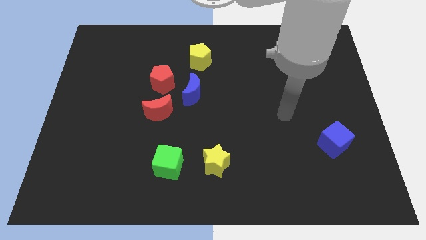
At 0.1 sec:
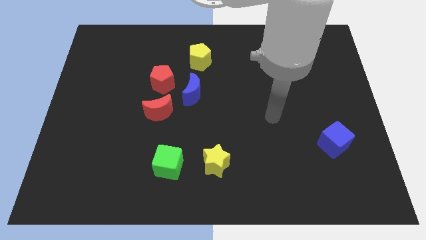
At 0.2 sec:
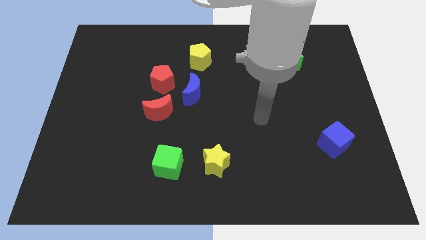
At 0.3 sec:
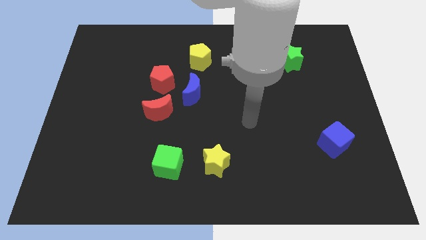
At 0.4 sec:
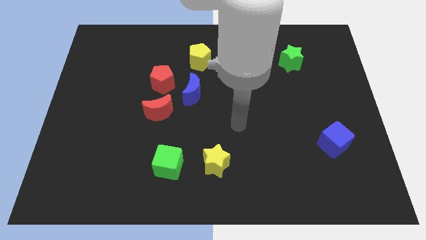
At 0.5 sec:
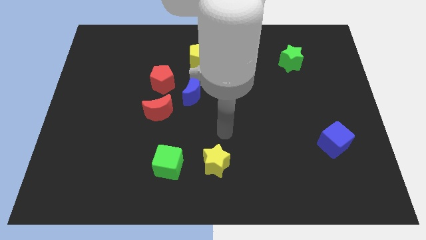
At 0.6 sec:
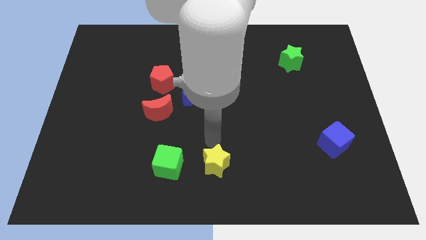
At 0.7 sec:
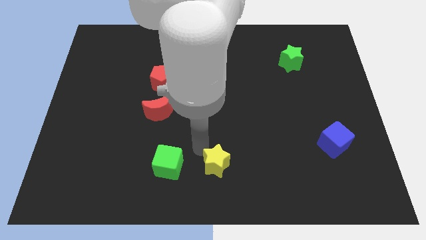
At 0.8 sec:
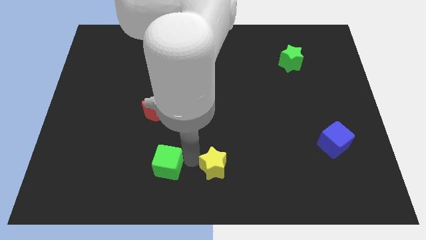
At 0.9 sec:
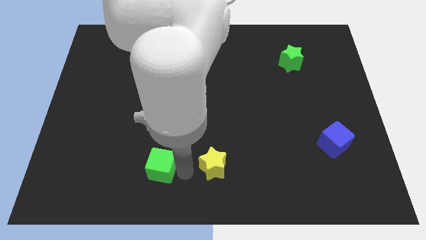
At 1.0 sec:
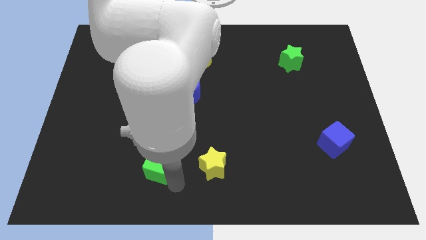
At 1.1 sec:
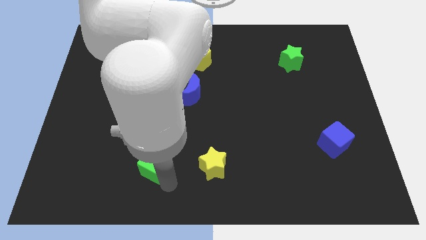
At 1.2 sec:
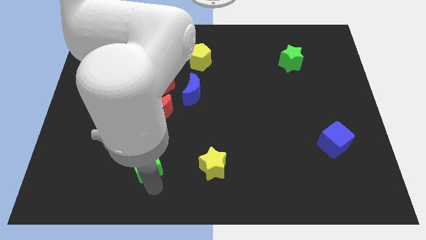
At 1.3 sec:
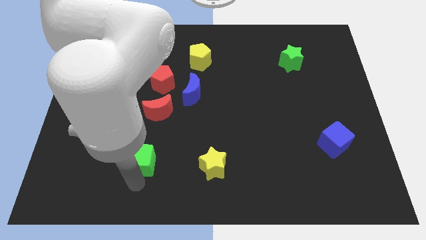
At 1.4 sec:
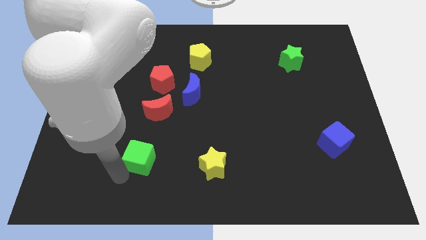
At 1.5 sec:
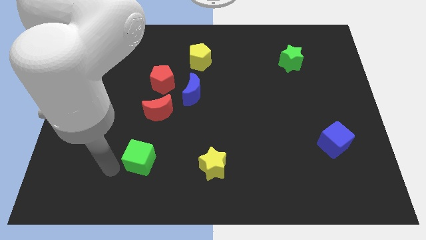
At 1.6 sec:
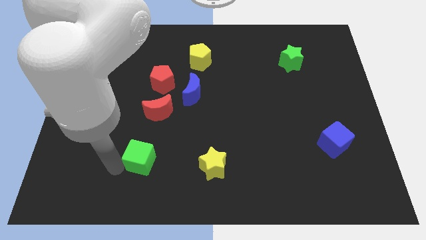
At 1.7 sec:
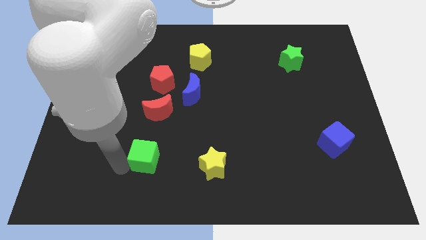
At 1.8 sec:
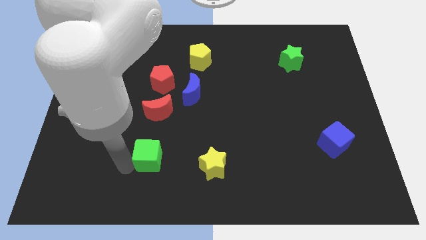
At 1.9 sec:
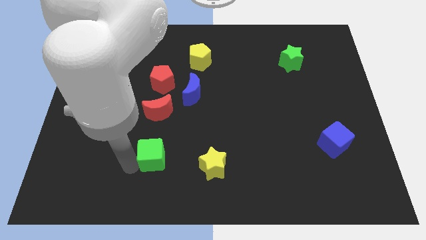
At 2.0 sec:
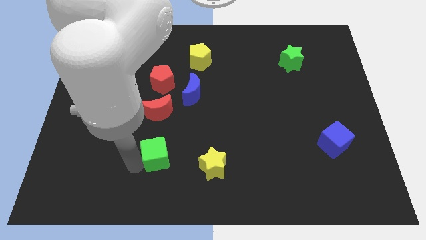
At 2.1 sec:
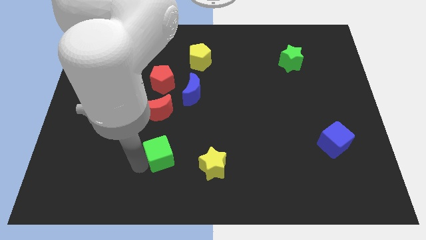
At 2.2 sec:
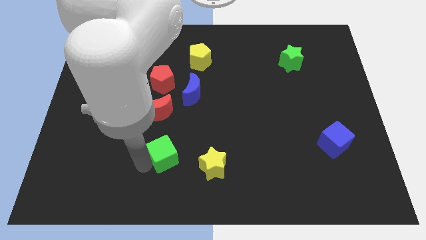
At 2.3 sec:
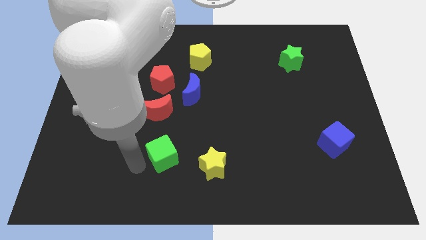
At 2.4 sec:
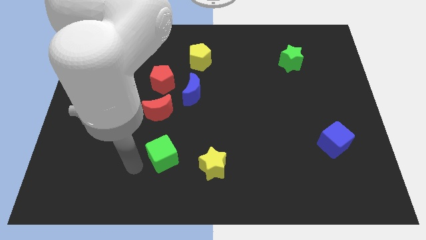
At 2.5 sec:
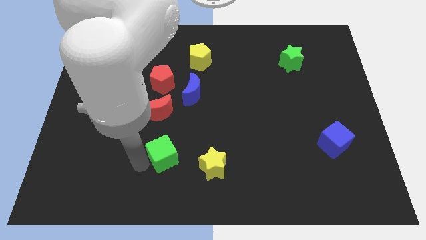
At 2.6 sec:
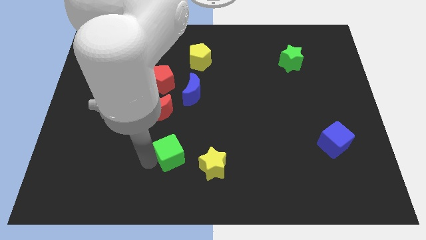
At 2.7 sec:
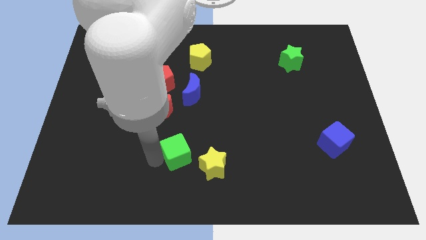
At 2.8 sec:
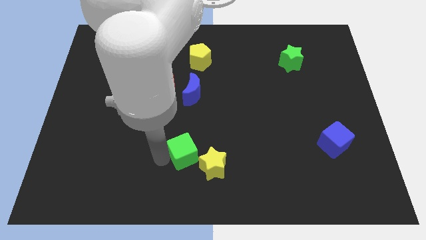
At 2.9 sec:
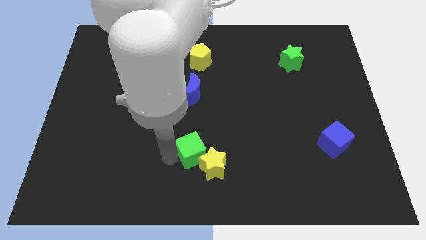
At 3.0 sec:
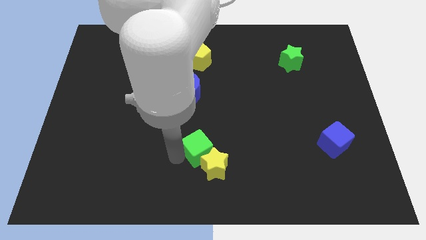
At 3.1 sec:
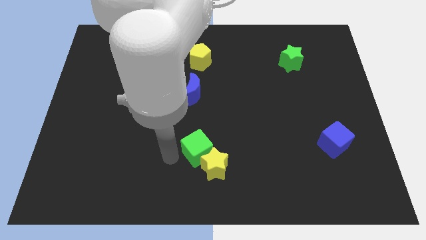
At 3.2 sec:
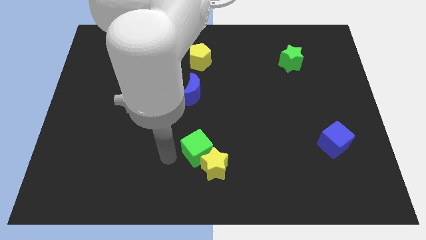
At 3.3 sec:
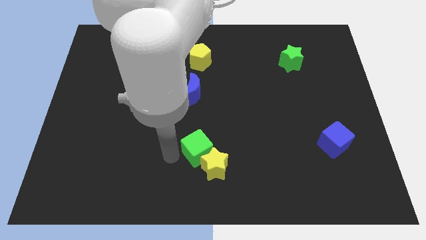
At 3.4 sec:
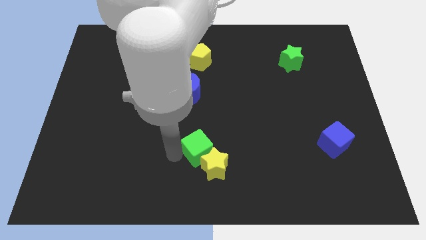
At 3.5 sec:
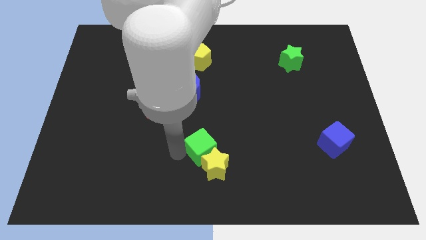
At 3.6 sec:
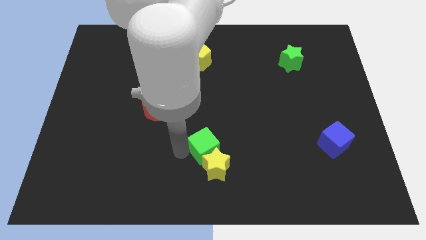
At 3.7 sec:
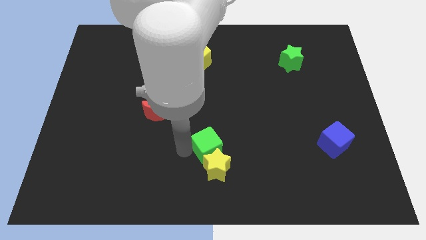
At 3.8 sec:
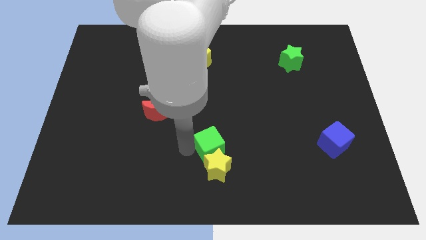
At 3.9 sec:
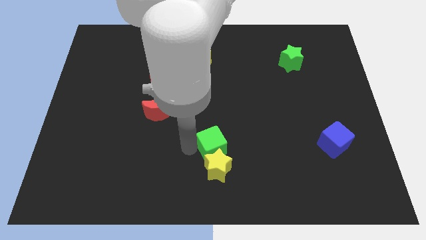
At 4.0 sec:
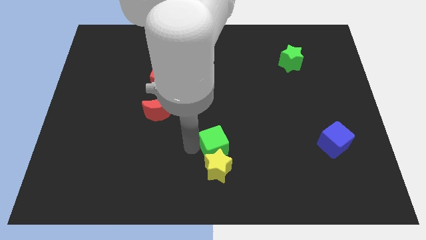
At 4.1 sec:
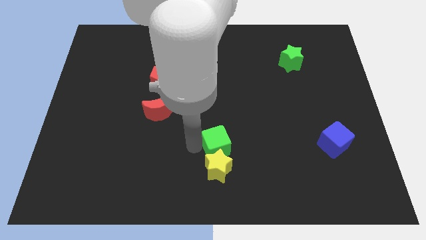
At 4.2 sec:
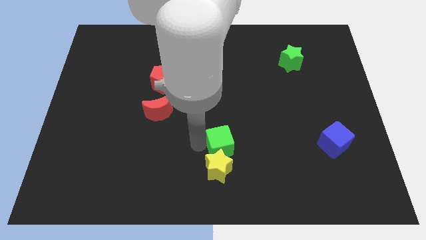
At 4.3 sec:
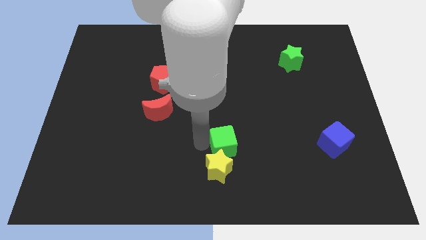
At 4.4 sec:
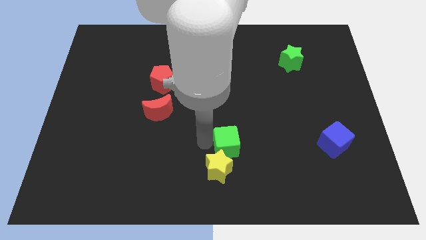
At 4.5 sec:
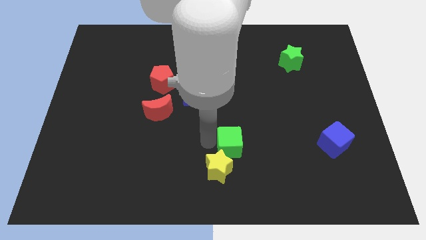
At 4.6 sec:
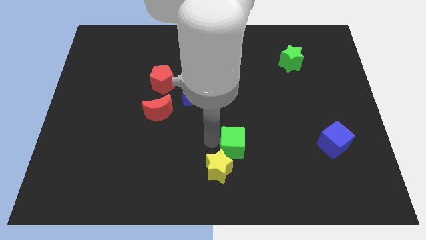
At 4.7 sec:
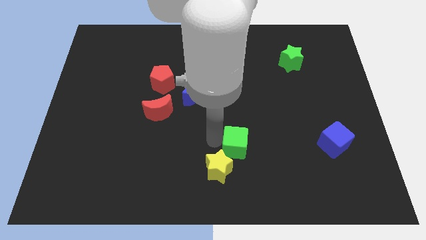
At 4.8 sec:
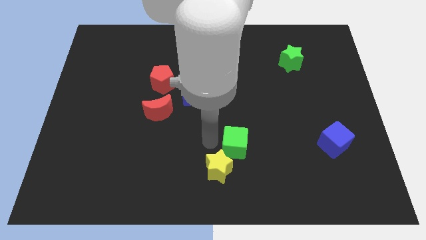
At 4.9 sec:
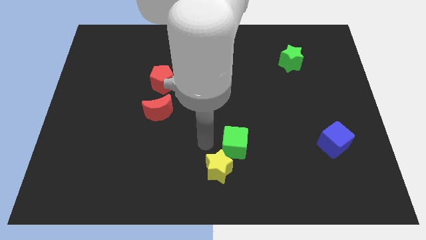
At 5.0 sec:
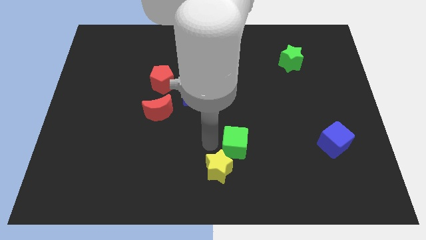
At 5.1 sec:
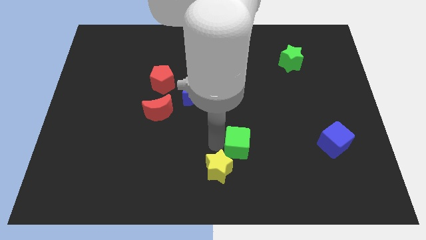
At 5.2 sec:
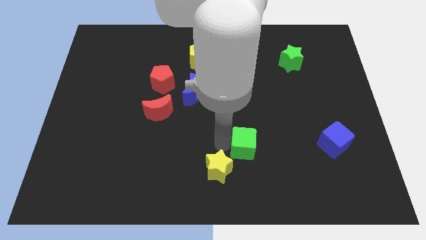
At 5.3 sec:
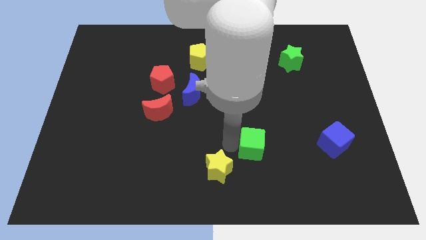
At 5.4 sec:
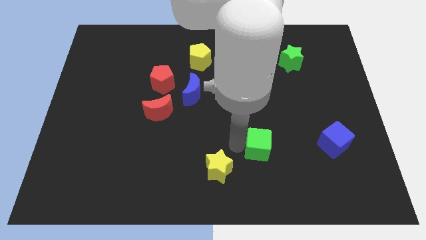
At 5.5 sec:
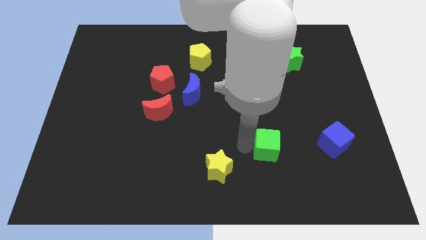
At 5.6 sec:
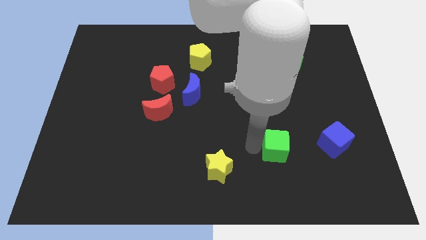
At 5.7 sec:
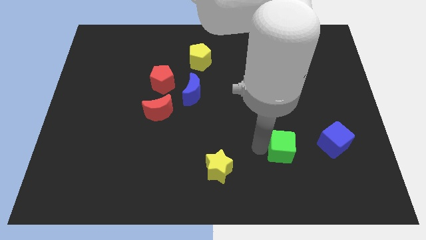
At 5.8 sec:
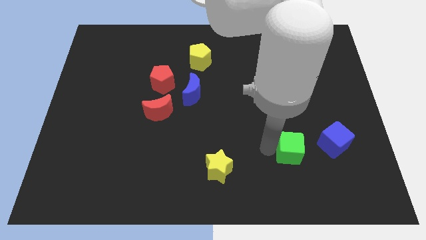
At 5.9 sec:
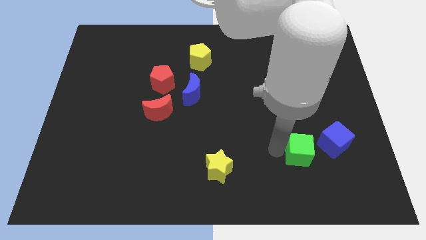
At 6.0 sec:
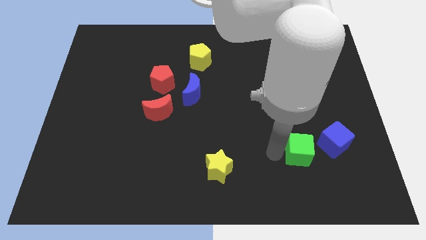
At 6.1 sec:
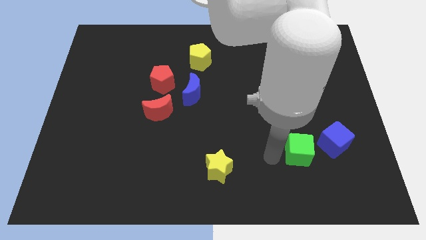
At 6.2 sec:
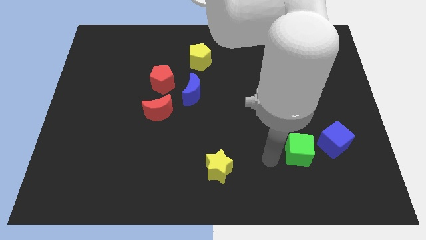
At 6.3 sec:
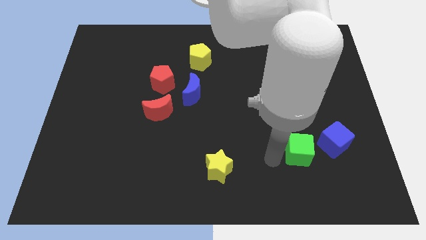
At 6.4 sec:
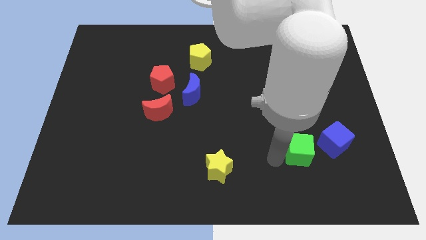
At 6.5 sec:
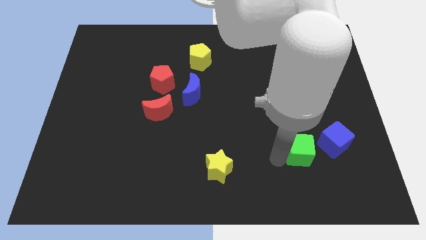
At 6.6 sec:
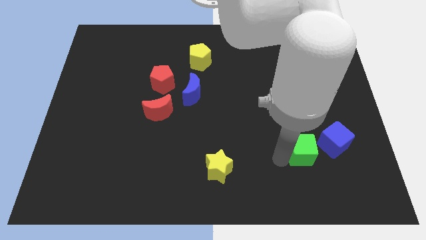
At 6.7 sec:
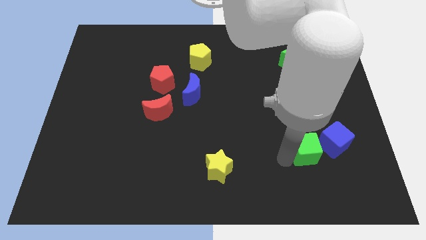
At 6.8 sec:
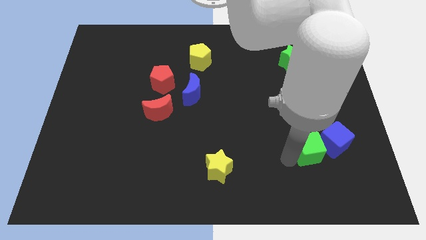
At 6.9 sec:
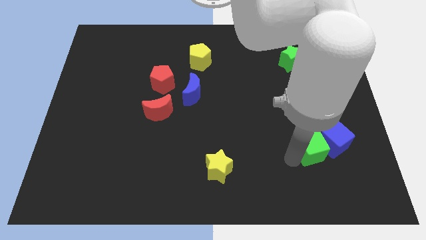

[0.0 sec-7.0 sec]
slide the green cube close to the blue cube

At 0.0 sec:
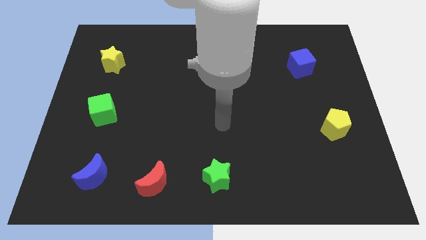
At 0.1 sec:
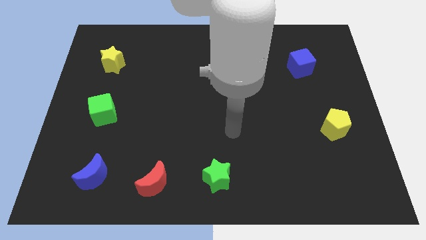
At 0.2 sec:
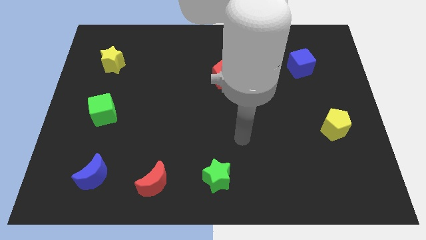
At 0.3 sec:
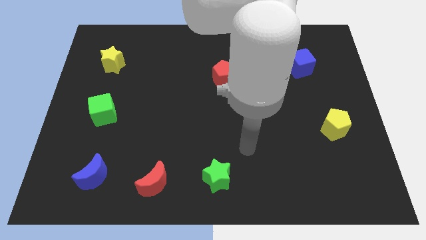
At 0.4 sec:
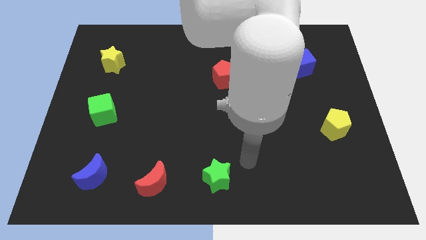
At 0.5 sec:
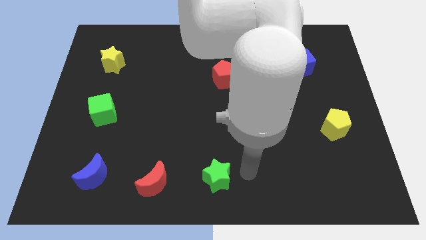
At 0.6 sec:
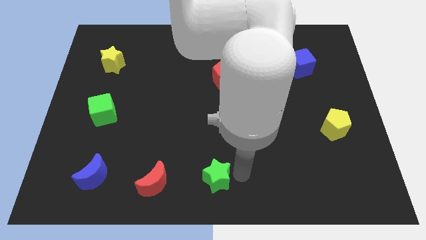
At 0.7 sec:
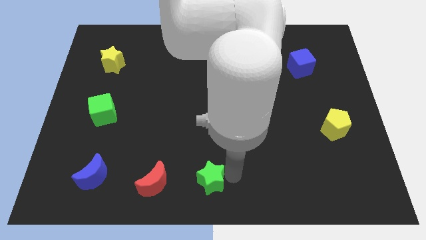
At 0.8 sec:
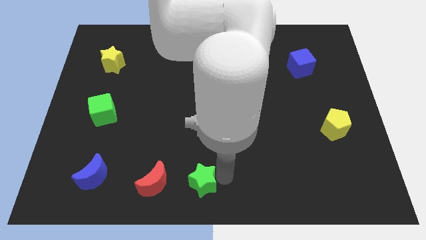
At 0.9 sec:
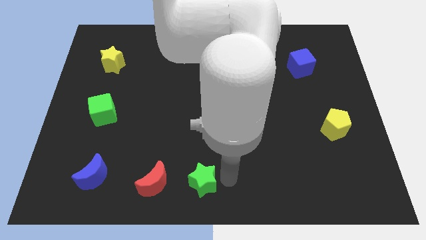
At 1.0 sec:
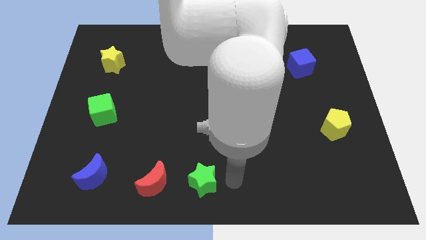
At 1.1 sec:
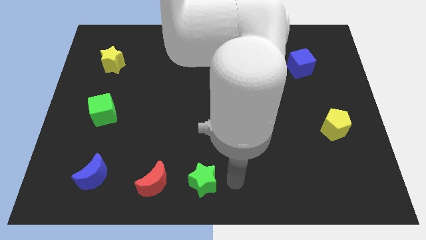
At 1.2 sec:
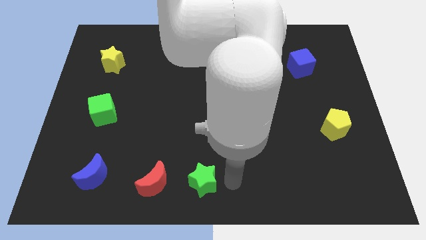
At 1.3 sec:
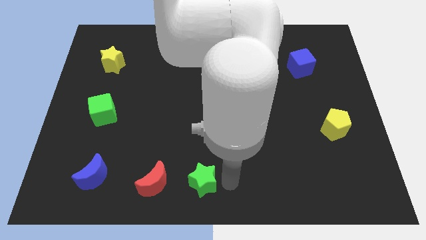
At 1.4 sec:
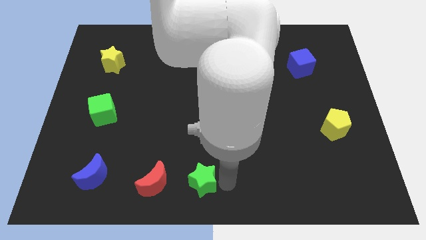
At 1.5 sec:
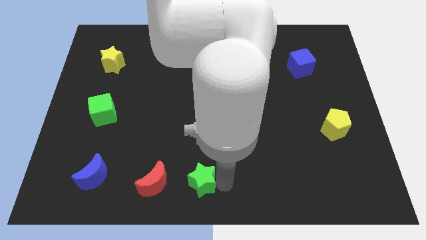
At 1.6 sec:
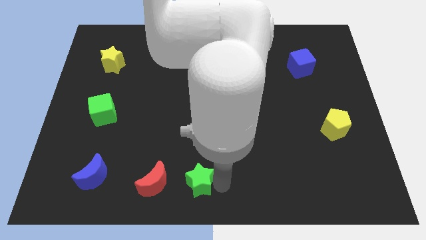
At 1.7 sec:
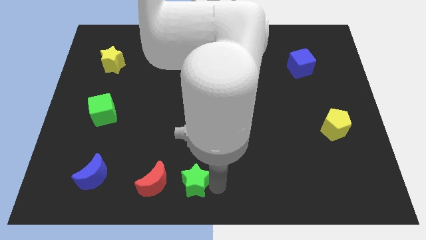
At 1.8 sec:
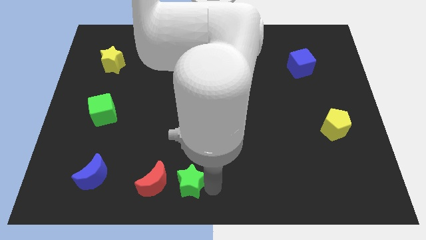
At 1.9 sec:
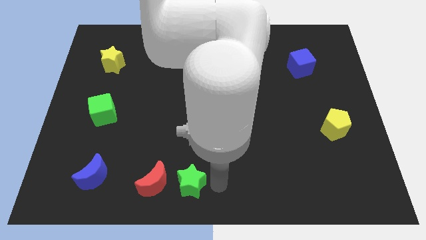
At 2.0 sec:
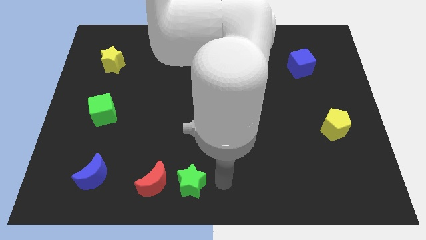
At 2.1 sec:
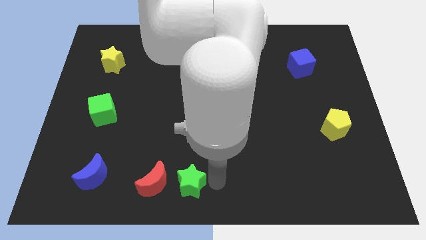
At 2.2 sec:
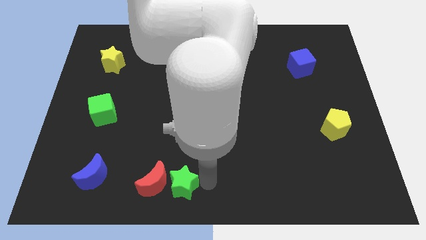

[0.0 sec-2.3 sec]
push the green star next to the red moon
